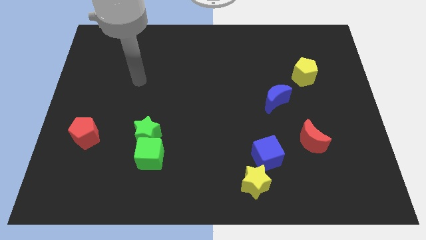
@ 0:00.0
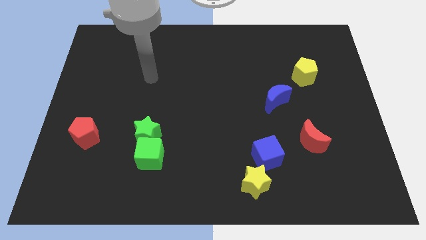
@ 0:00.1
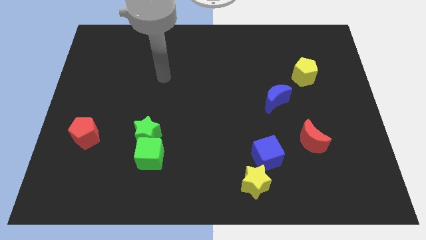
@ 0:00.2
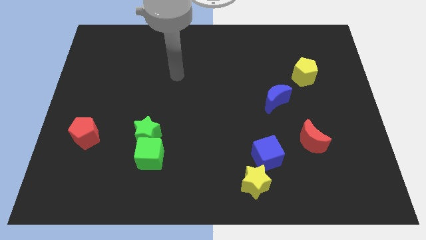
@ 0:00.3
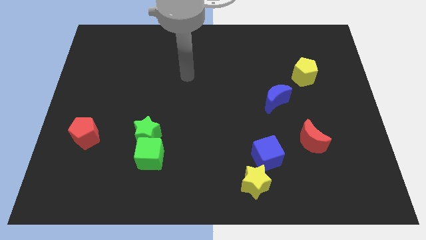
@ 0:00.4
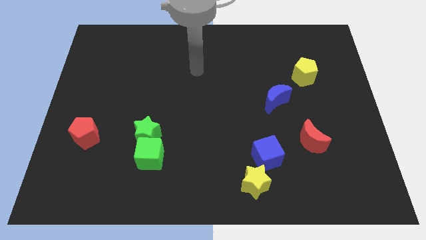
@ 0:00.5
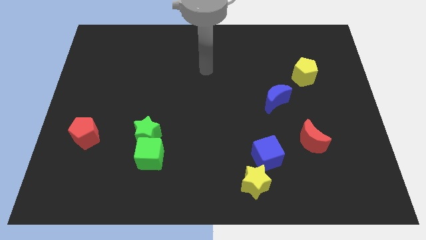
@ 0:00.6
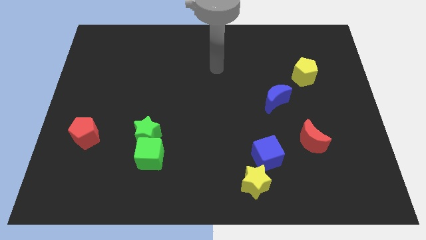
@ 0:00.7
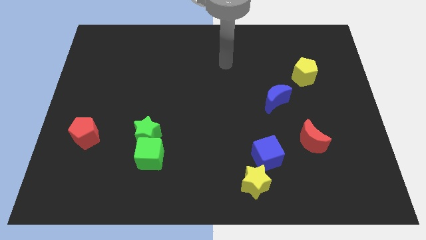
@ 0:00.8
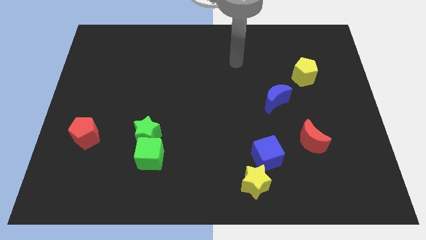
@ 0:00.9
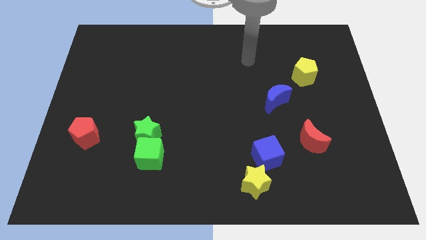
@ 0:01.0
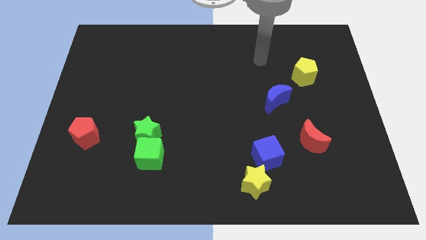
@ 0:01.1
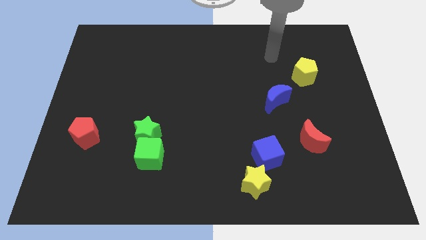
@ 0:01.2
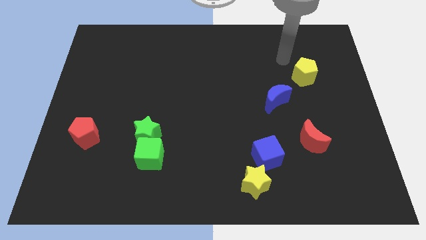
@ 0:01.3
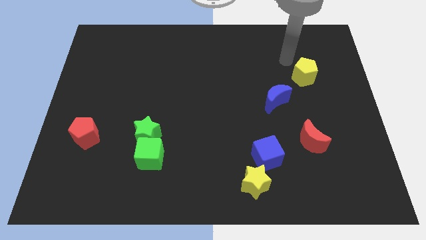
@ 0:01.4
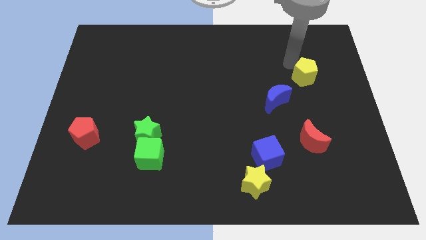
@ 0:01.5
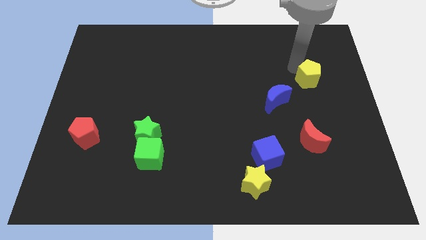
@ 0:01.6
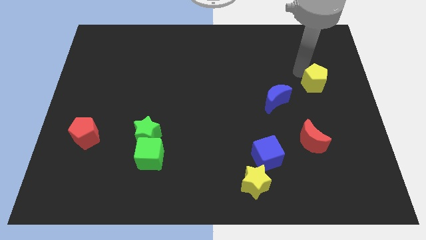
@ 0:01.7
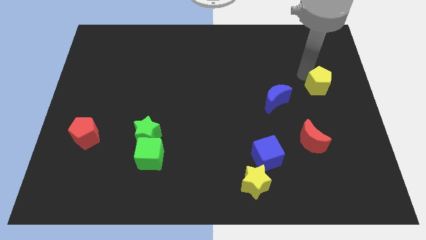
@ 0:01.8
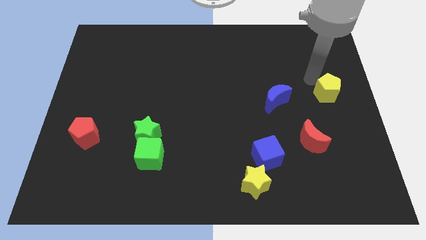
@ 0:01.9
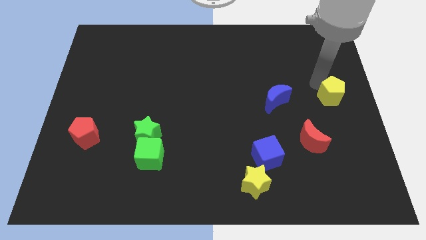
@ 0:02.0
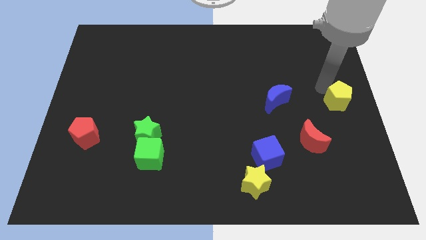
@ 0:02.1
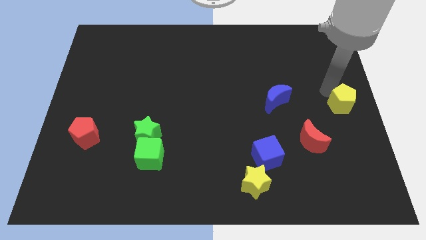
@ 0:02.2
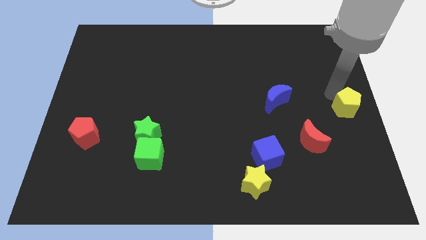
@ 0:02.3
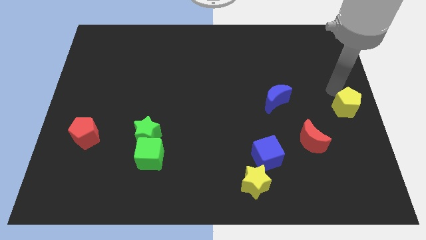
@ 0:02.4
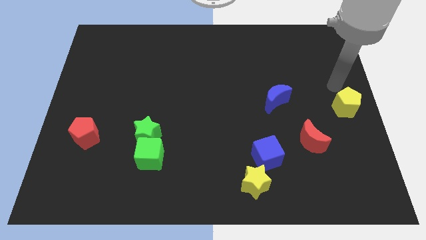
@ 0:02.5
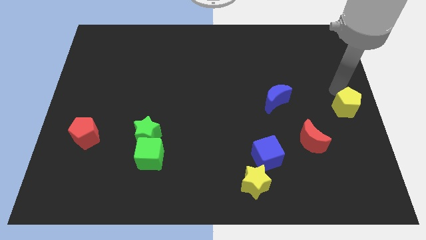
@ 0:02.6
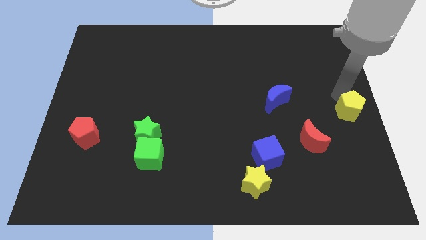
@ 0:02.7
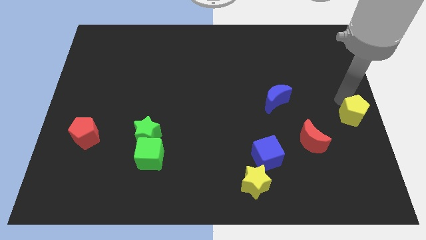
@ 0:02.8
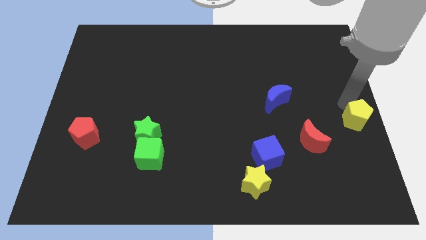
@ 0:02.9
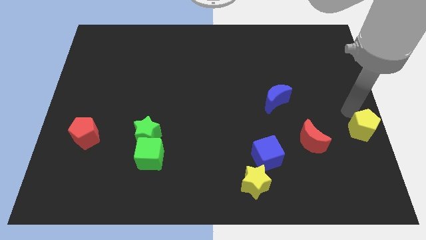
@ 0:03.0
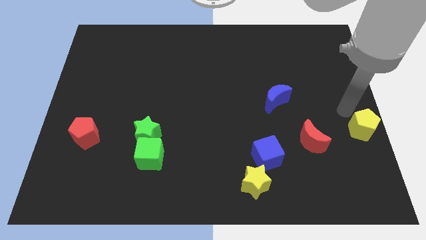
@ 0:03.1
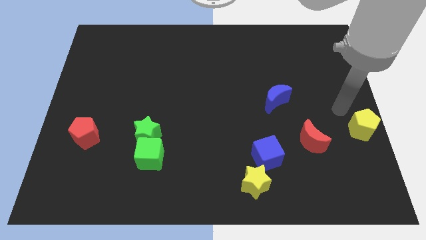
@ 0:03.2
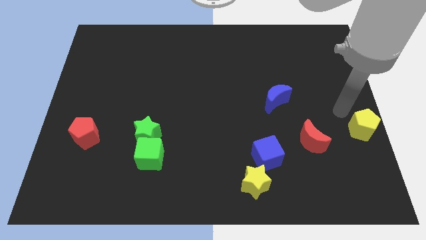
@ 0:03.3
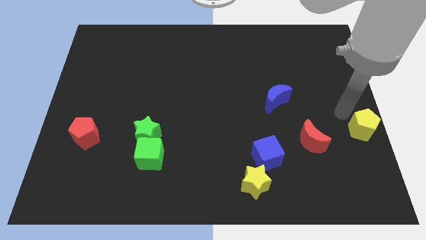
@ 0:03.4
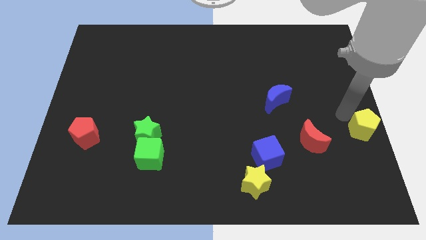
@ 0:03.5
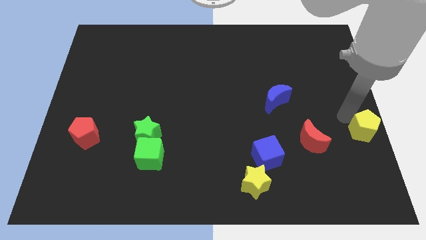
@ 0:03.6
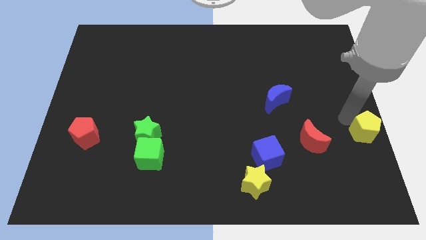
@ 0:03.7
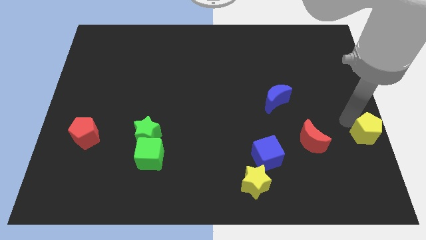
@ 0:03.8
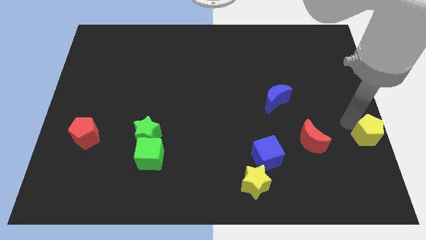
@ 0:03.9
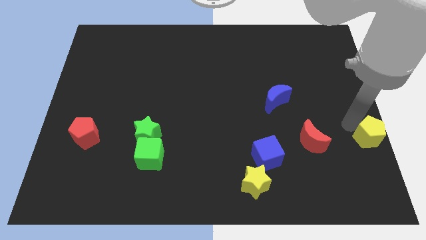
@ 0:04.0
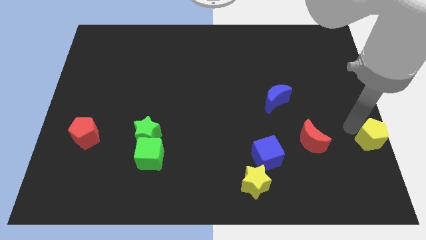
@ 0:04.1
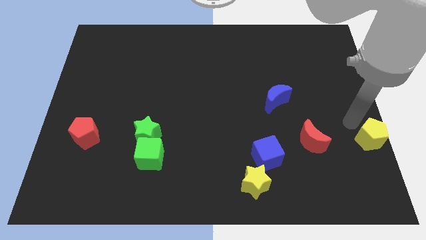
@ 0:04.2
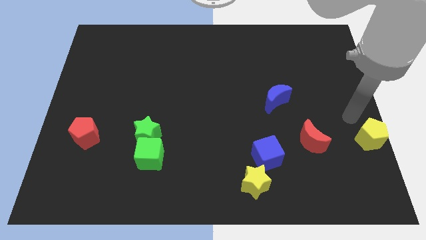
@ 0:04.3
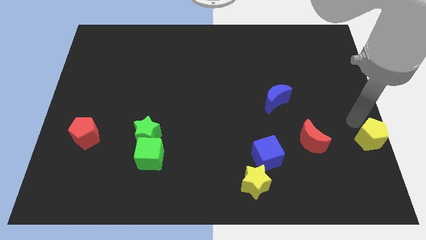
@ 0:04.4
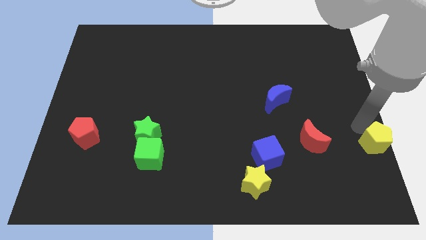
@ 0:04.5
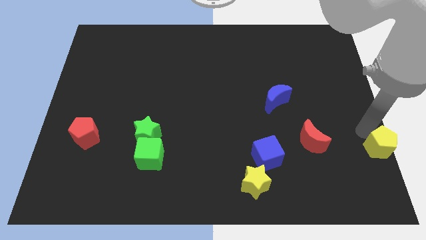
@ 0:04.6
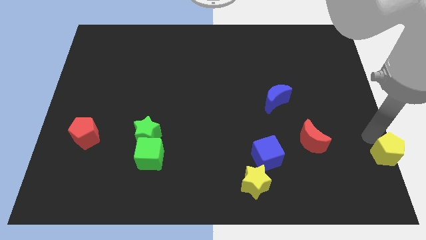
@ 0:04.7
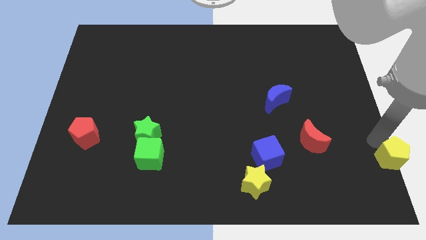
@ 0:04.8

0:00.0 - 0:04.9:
move the yellow pentagon to the bottom right of the board

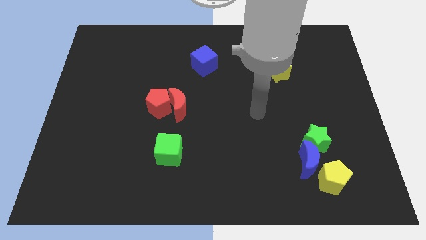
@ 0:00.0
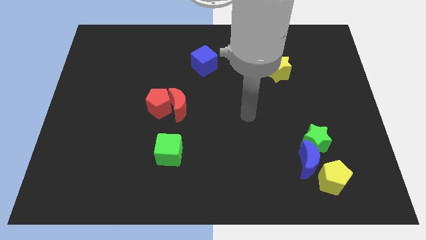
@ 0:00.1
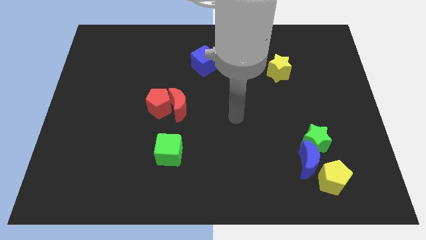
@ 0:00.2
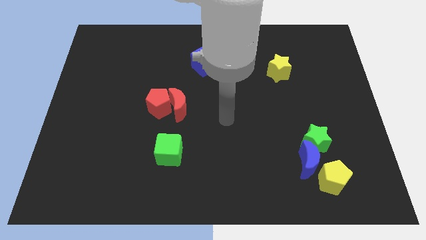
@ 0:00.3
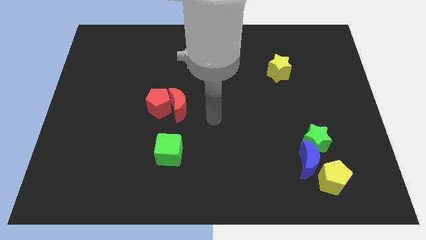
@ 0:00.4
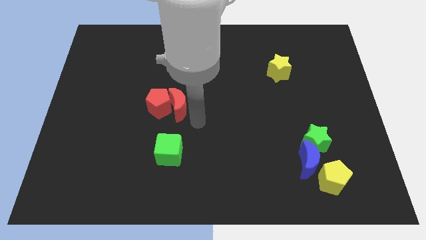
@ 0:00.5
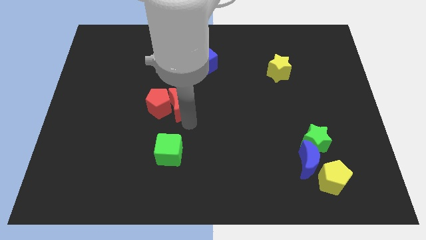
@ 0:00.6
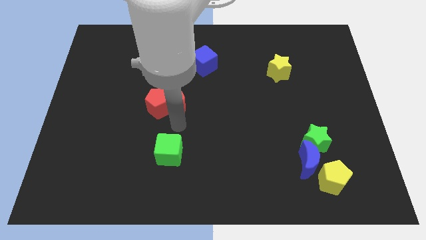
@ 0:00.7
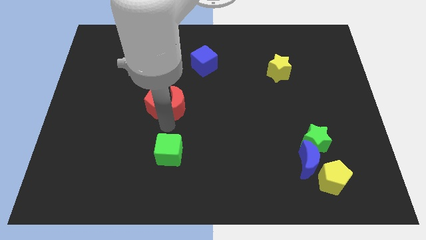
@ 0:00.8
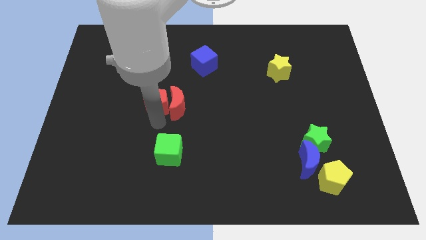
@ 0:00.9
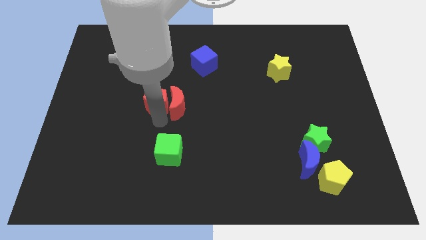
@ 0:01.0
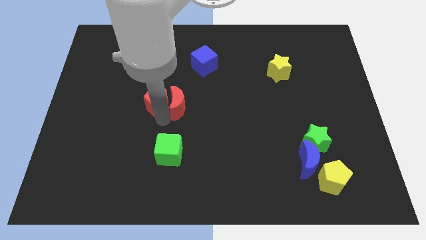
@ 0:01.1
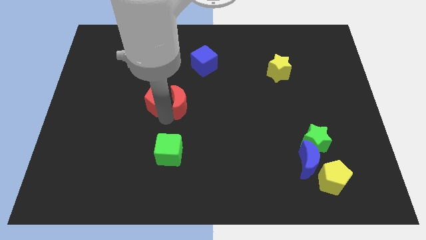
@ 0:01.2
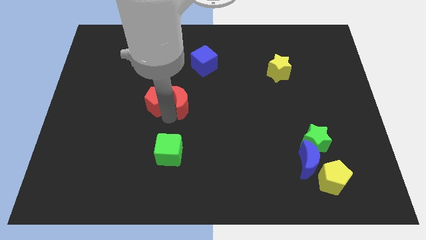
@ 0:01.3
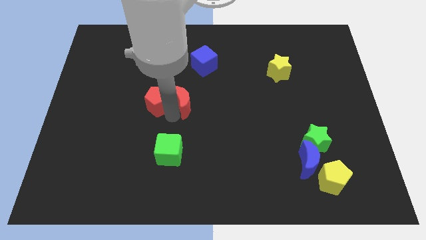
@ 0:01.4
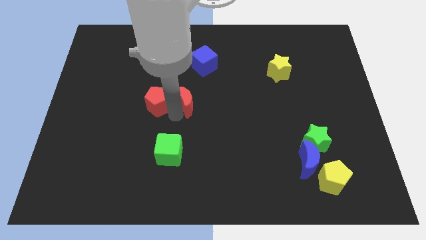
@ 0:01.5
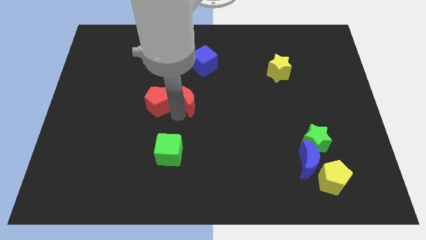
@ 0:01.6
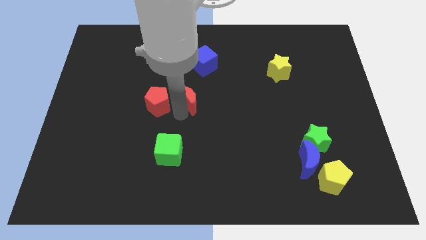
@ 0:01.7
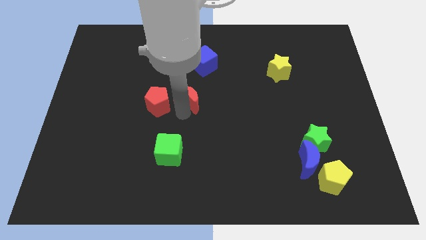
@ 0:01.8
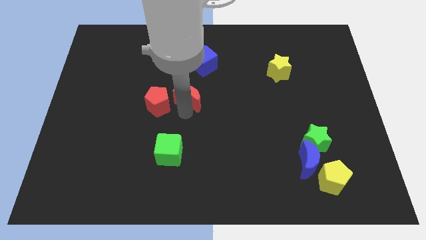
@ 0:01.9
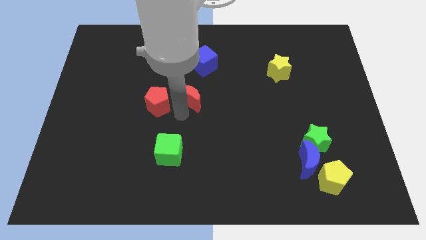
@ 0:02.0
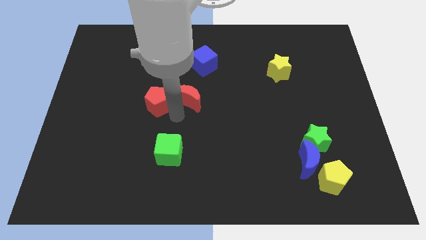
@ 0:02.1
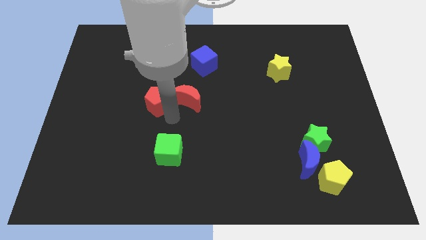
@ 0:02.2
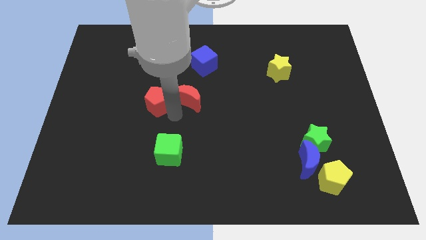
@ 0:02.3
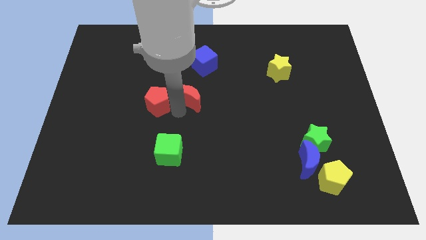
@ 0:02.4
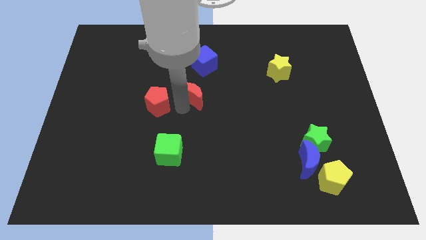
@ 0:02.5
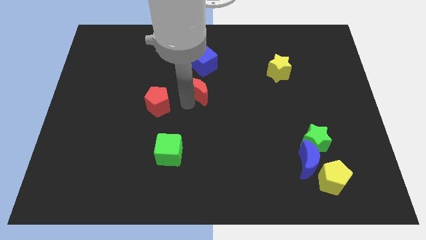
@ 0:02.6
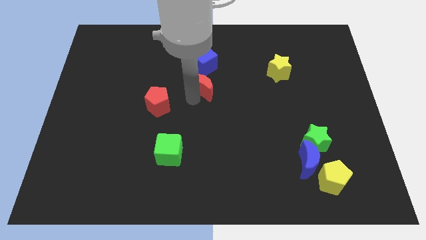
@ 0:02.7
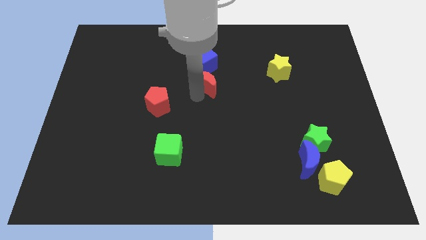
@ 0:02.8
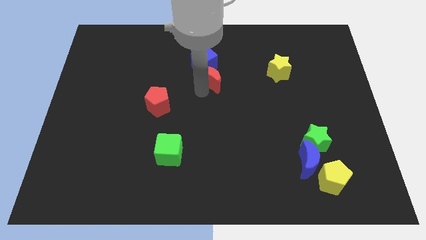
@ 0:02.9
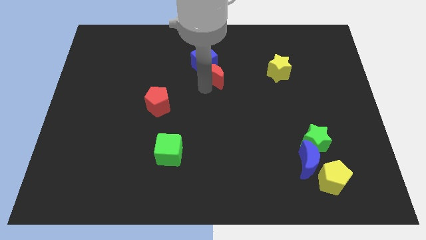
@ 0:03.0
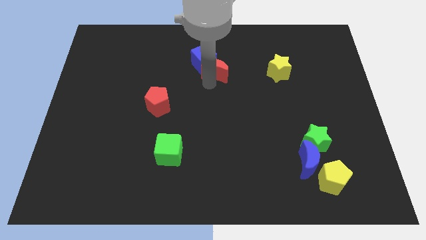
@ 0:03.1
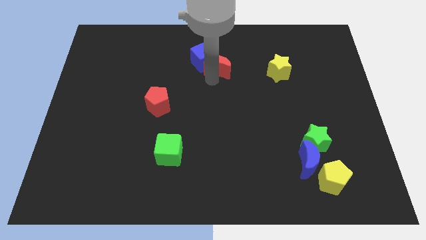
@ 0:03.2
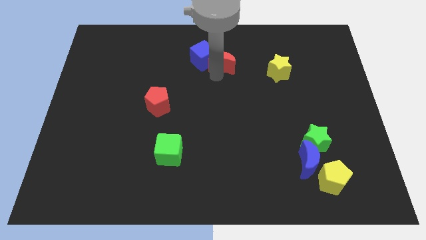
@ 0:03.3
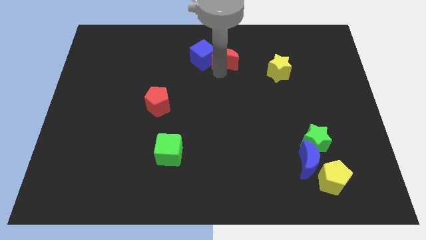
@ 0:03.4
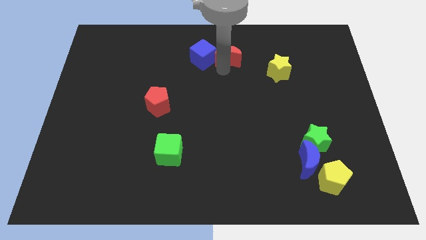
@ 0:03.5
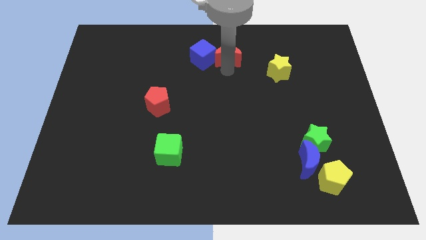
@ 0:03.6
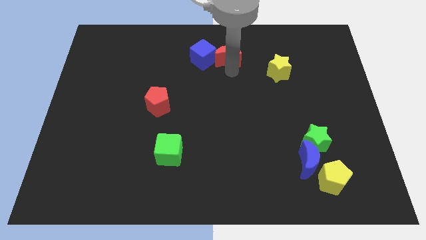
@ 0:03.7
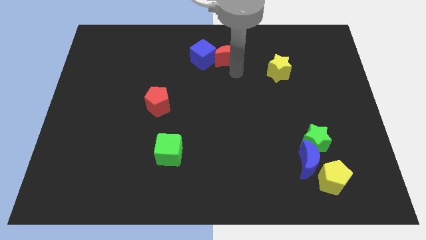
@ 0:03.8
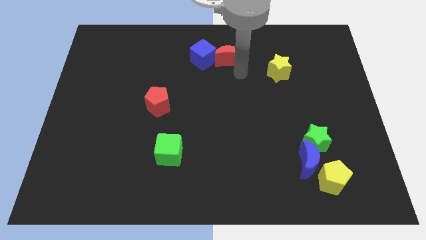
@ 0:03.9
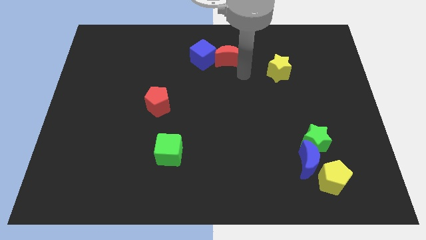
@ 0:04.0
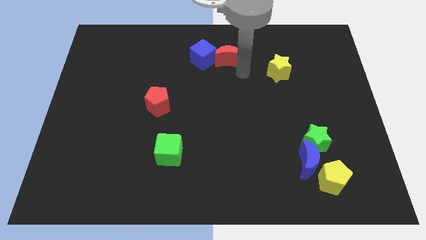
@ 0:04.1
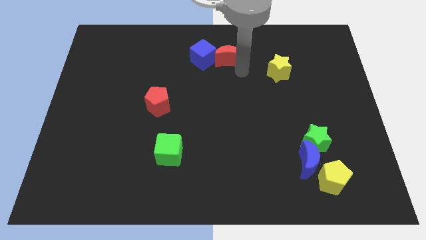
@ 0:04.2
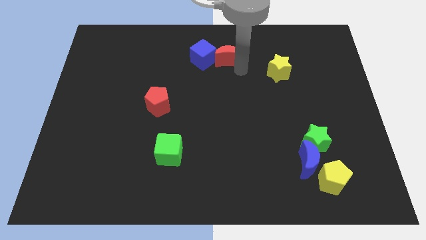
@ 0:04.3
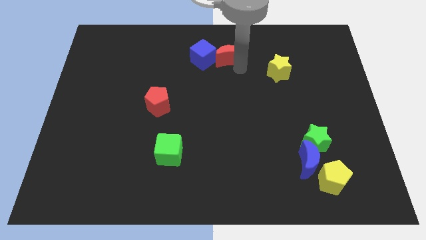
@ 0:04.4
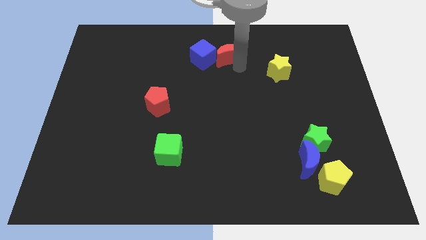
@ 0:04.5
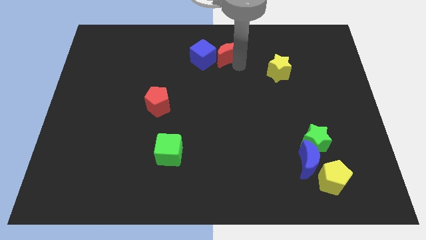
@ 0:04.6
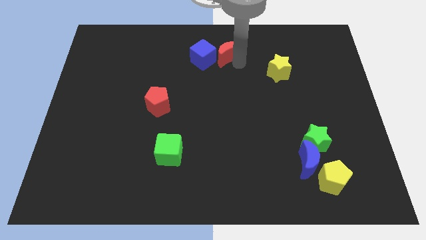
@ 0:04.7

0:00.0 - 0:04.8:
put the red moon to the top side
